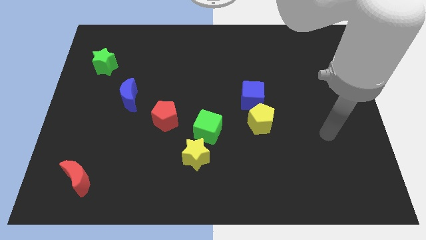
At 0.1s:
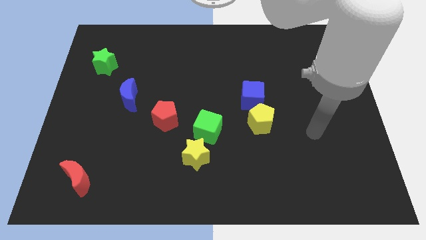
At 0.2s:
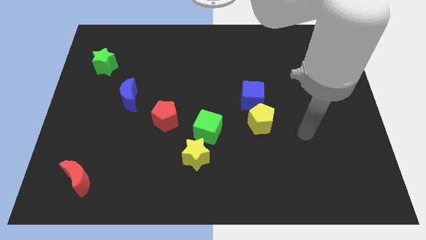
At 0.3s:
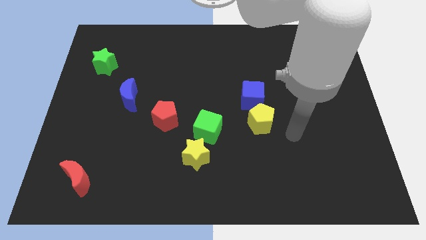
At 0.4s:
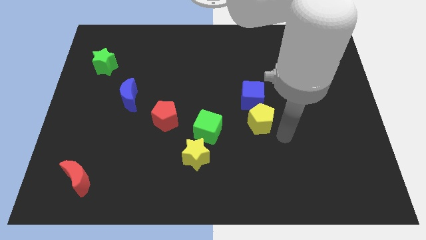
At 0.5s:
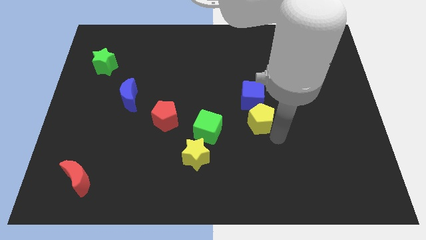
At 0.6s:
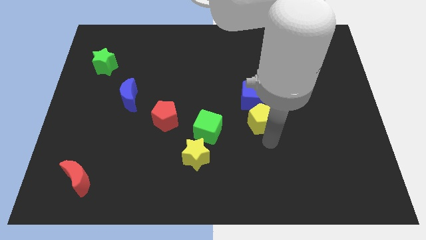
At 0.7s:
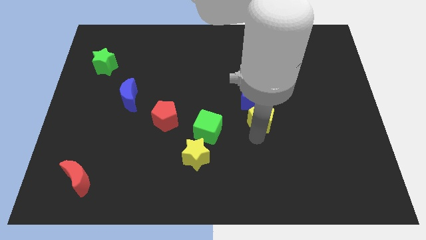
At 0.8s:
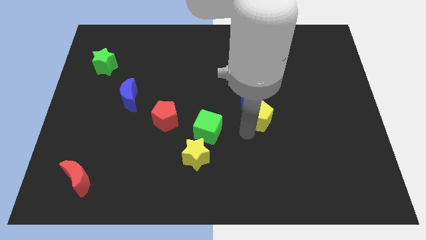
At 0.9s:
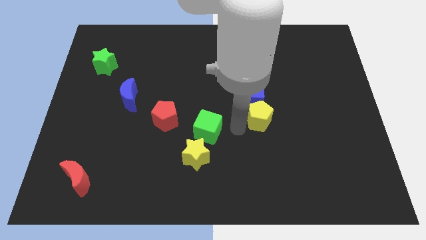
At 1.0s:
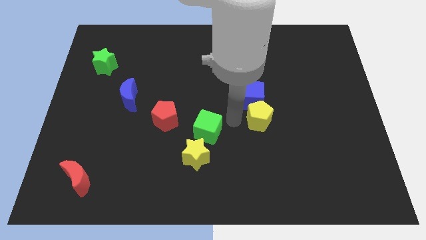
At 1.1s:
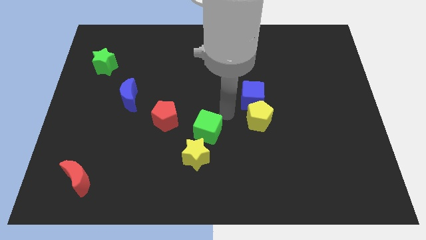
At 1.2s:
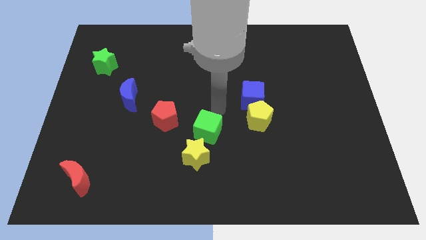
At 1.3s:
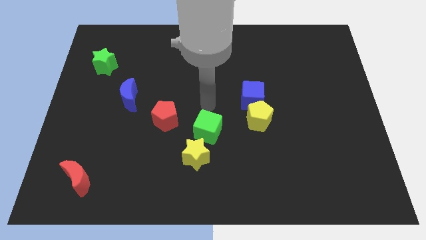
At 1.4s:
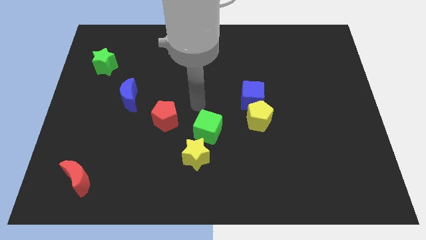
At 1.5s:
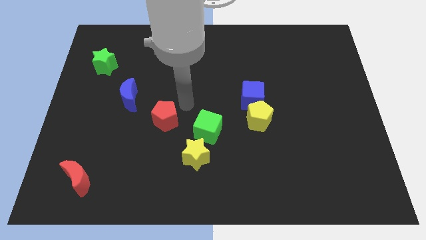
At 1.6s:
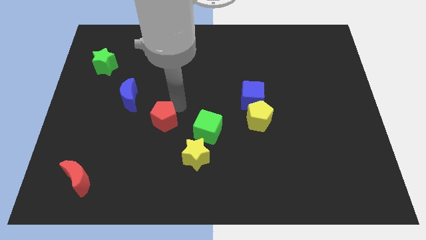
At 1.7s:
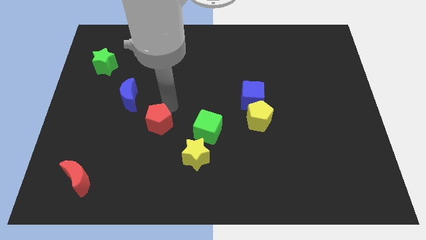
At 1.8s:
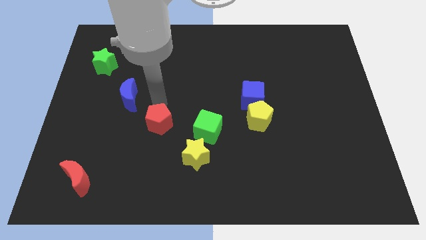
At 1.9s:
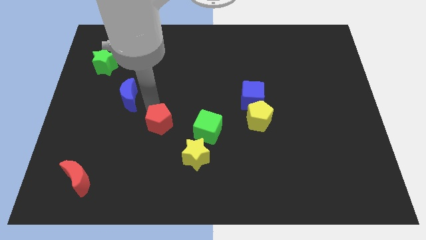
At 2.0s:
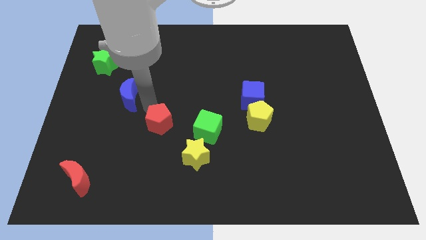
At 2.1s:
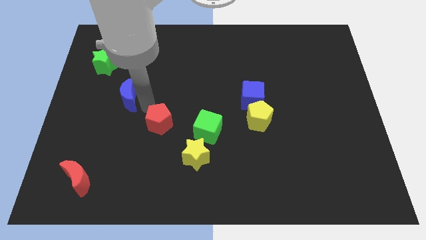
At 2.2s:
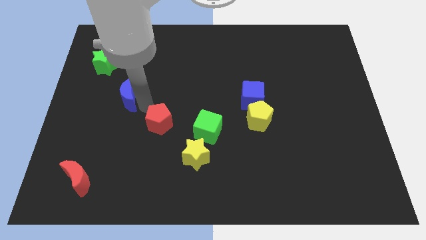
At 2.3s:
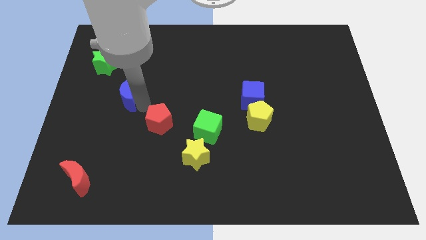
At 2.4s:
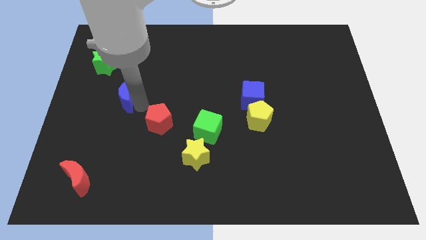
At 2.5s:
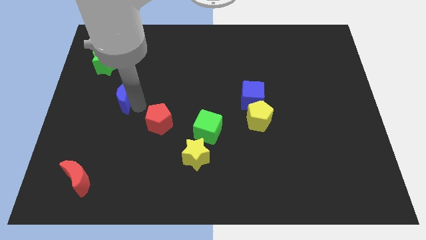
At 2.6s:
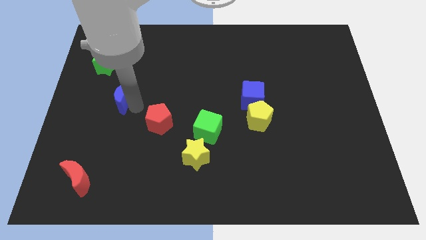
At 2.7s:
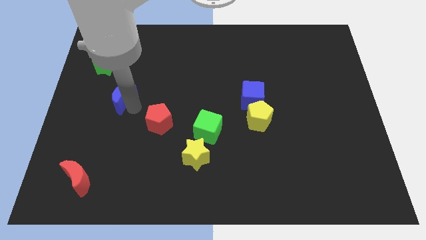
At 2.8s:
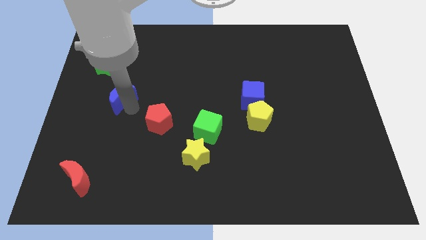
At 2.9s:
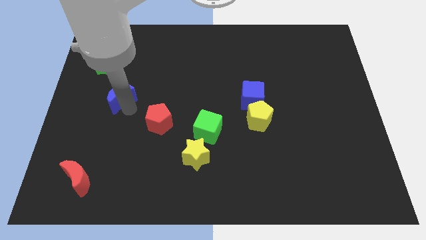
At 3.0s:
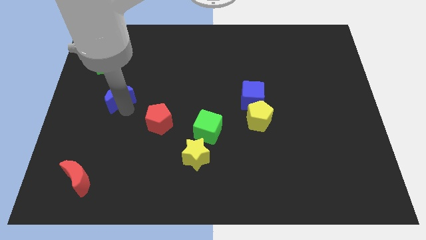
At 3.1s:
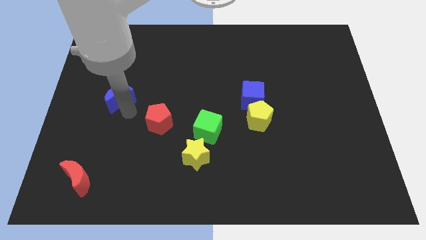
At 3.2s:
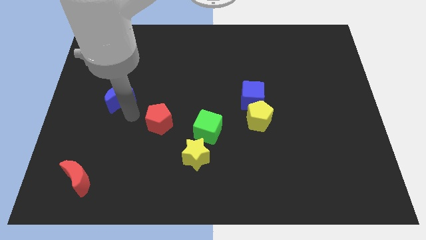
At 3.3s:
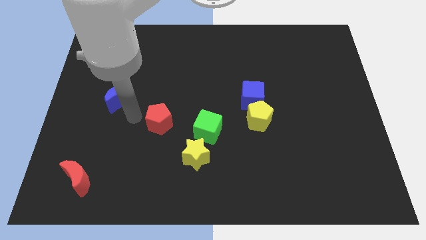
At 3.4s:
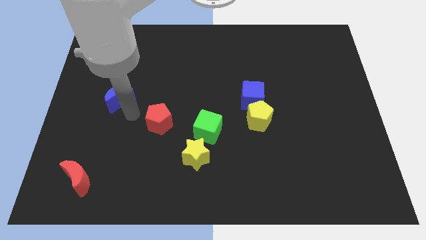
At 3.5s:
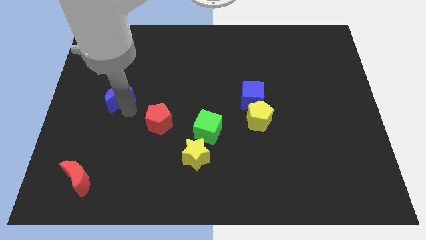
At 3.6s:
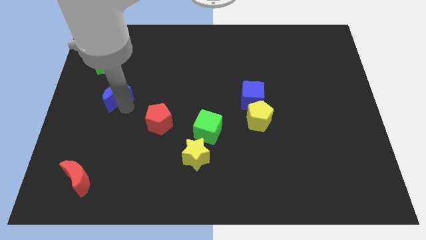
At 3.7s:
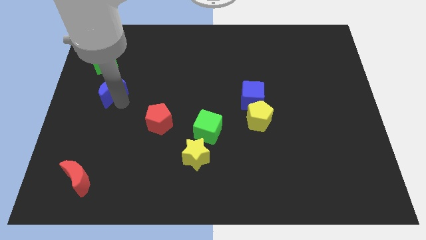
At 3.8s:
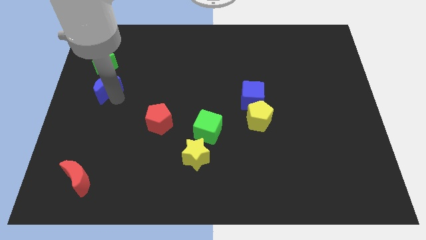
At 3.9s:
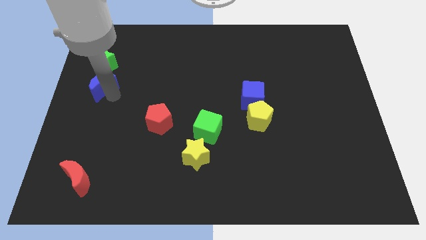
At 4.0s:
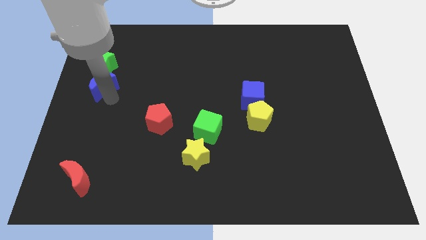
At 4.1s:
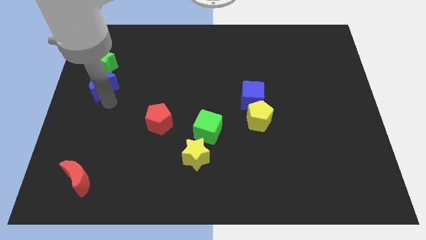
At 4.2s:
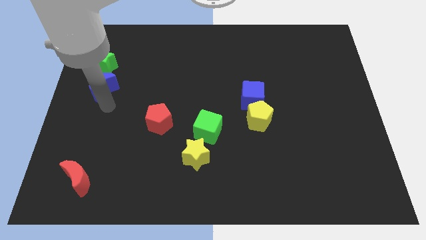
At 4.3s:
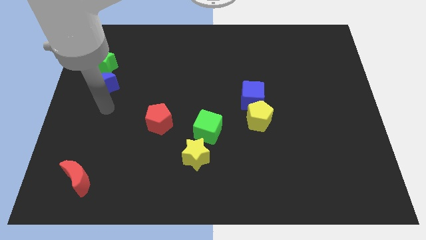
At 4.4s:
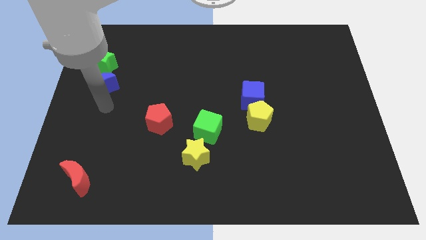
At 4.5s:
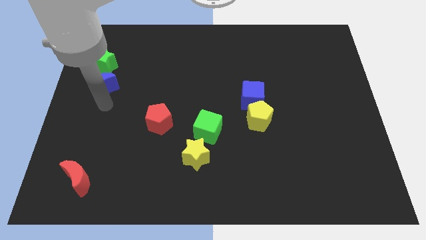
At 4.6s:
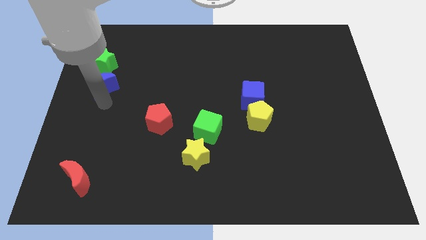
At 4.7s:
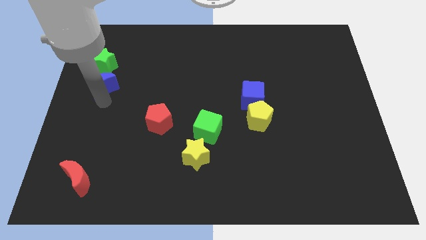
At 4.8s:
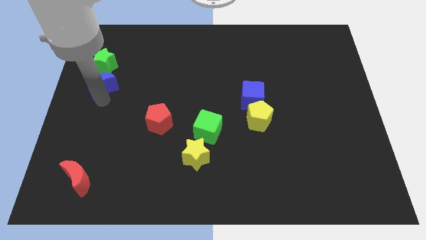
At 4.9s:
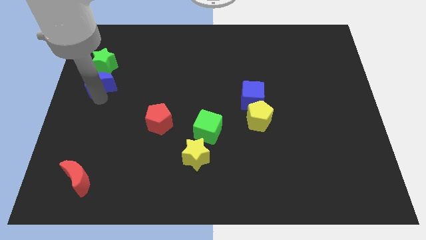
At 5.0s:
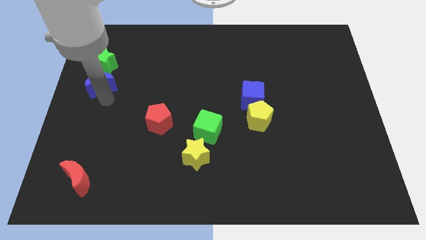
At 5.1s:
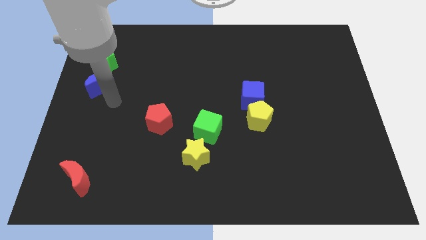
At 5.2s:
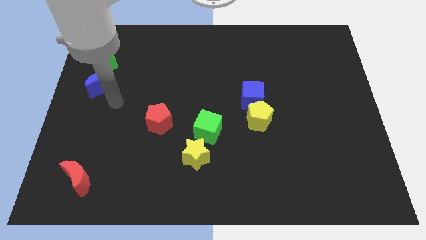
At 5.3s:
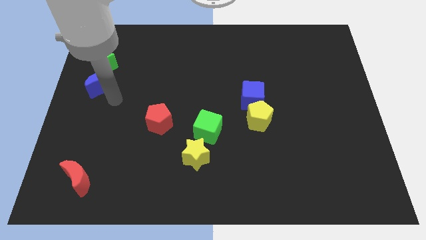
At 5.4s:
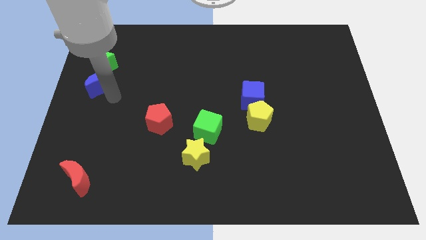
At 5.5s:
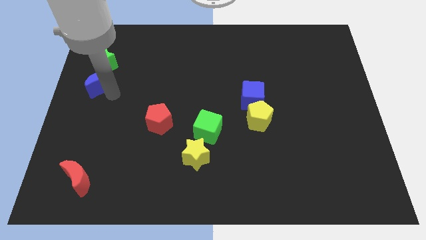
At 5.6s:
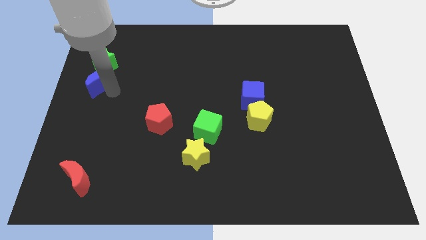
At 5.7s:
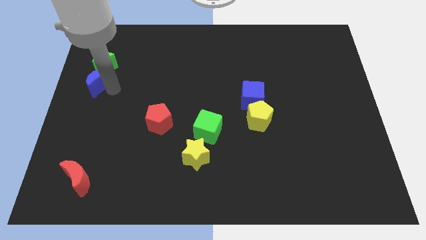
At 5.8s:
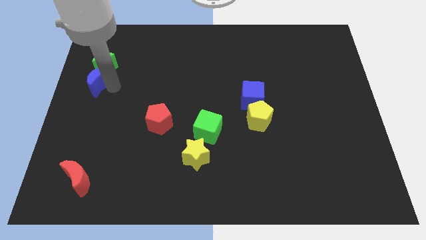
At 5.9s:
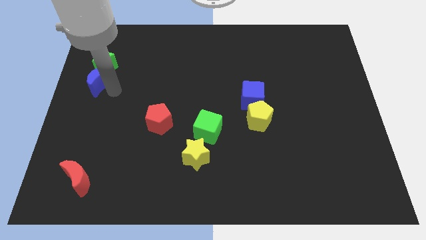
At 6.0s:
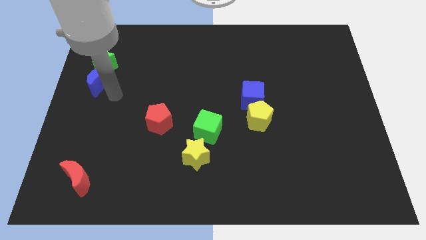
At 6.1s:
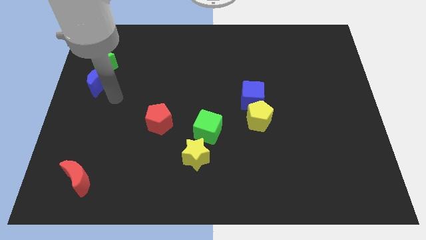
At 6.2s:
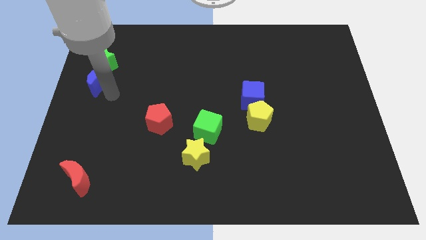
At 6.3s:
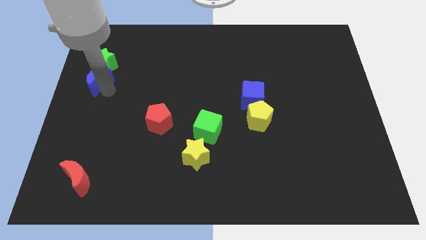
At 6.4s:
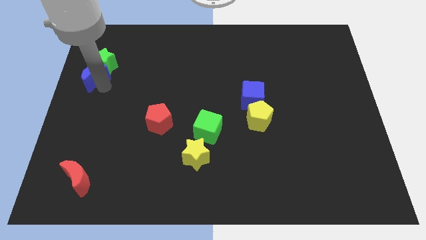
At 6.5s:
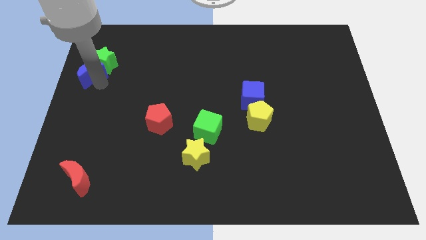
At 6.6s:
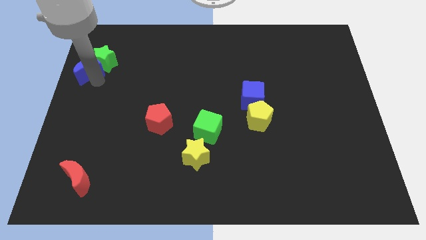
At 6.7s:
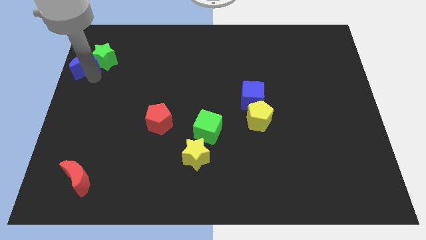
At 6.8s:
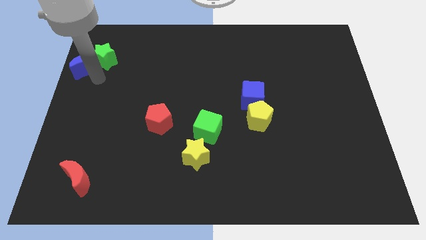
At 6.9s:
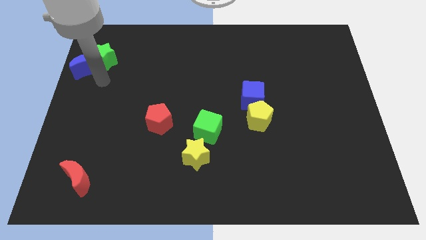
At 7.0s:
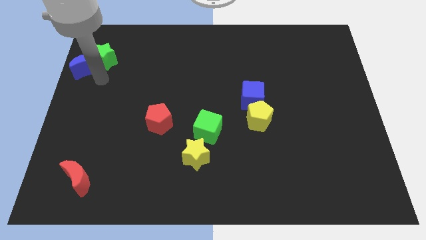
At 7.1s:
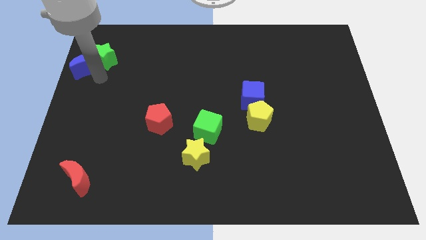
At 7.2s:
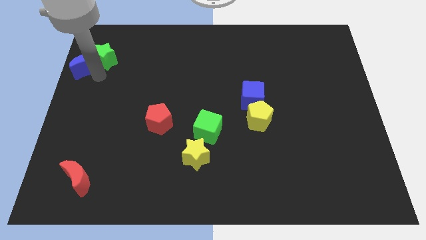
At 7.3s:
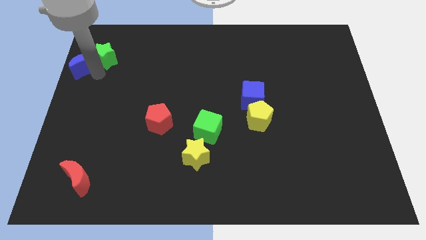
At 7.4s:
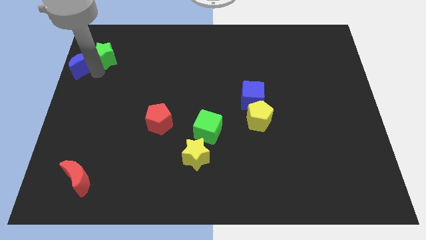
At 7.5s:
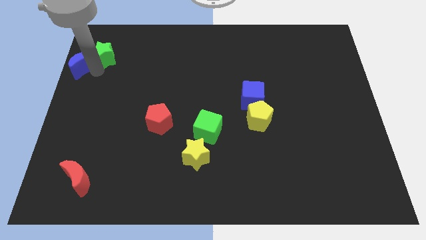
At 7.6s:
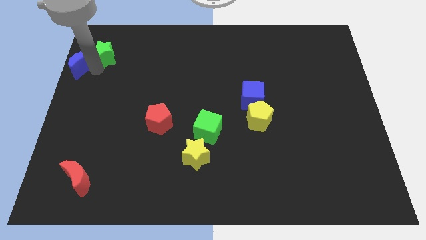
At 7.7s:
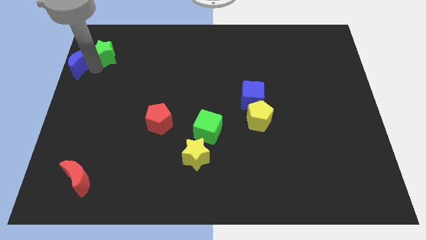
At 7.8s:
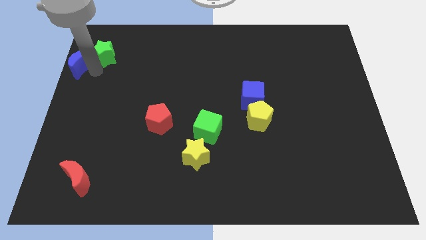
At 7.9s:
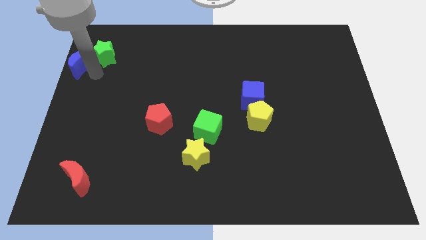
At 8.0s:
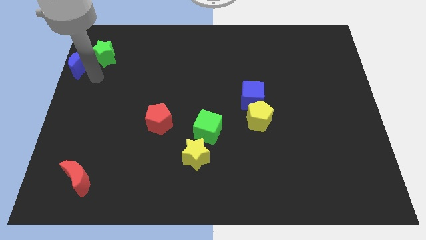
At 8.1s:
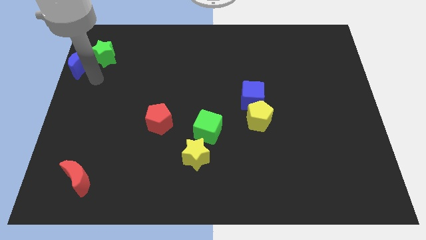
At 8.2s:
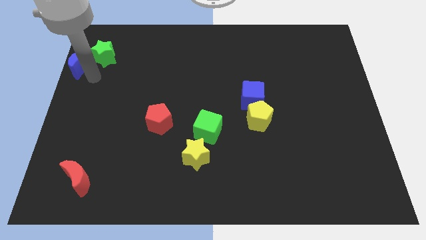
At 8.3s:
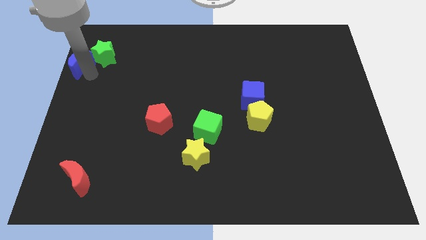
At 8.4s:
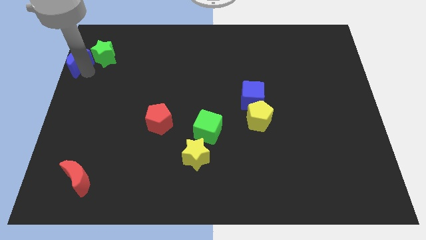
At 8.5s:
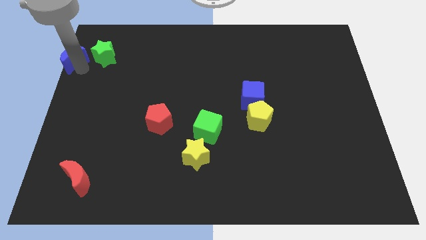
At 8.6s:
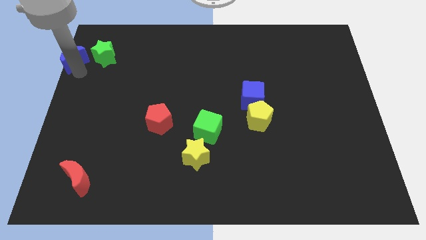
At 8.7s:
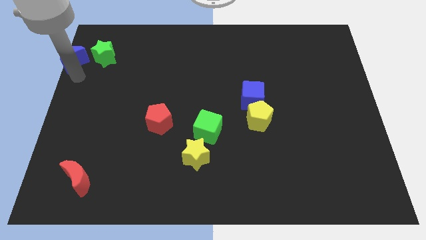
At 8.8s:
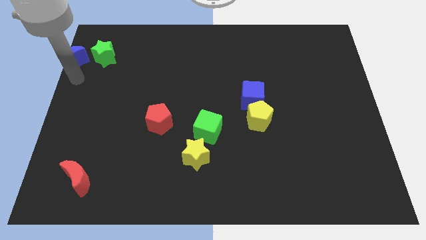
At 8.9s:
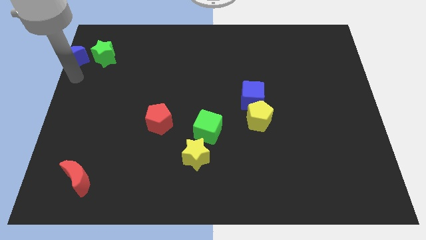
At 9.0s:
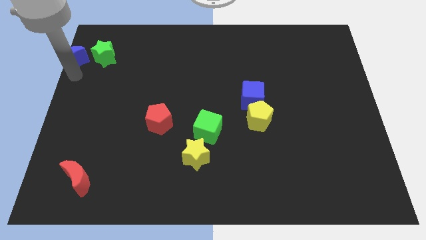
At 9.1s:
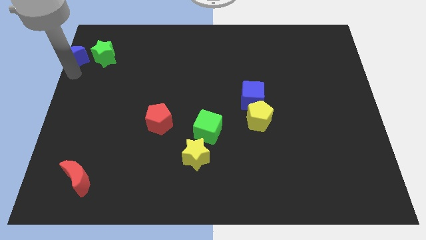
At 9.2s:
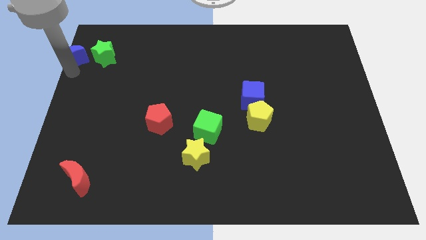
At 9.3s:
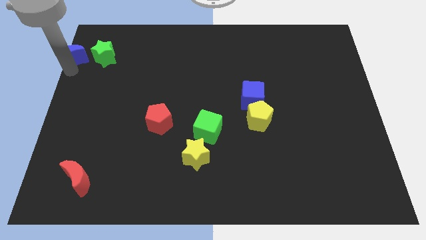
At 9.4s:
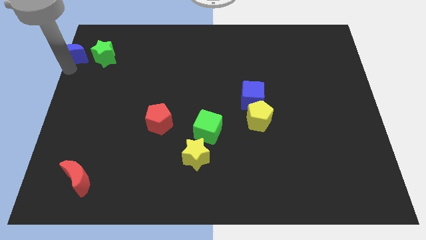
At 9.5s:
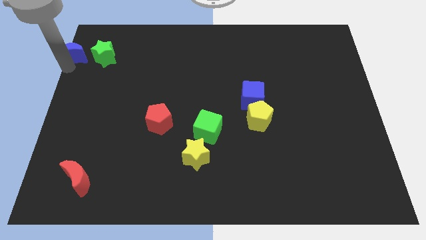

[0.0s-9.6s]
move the blue moon to the top left
